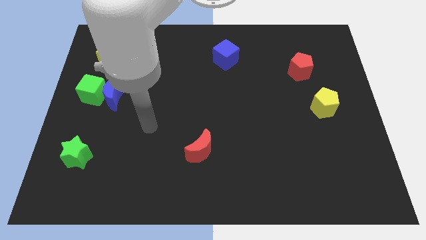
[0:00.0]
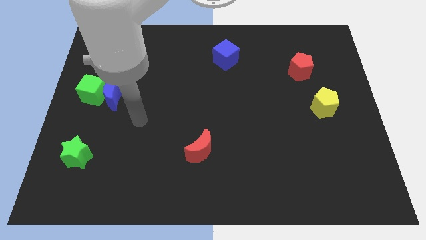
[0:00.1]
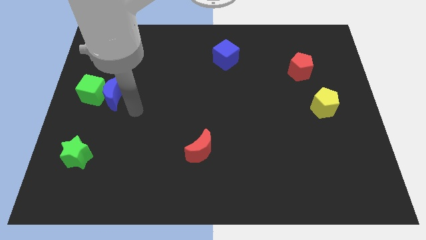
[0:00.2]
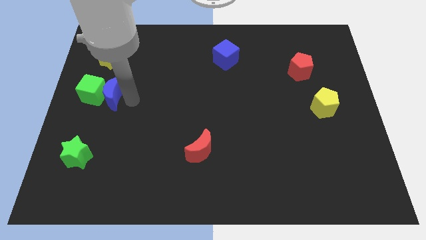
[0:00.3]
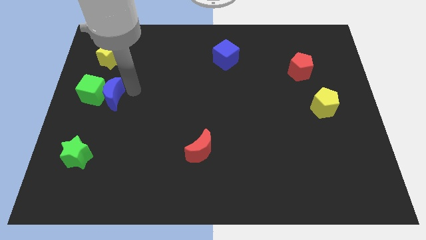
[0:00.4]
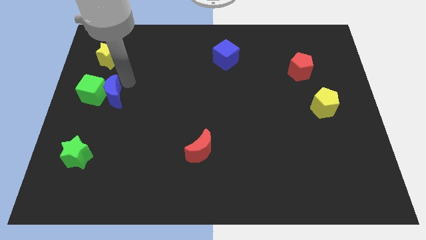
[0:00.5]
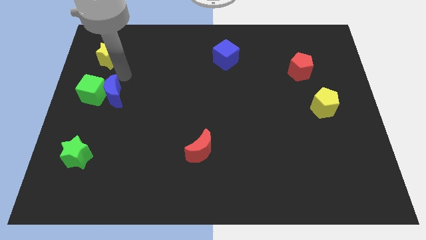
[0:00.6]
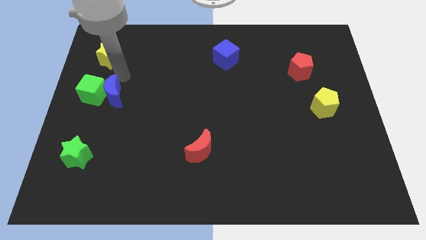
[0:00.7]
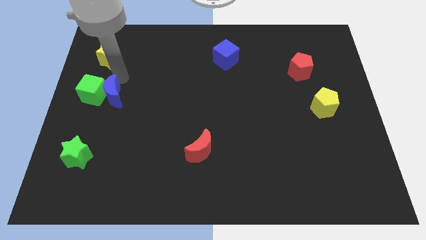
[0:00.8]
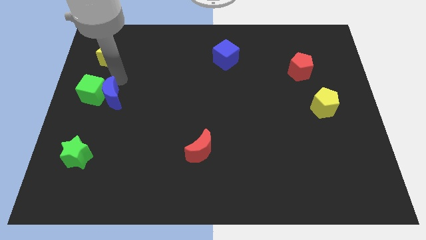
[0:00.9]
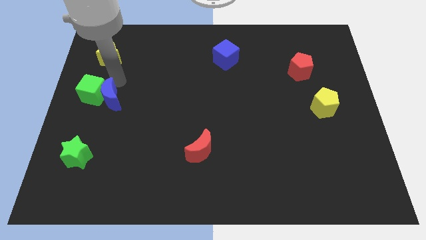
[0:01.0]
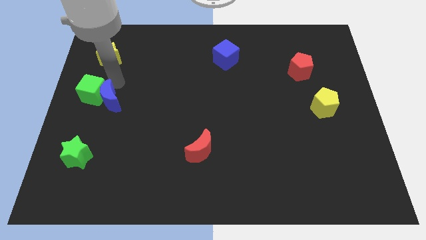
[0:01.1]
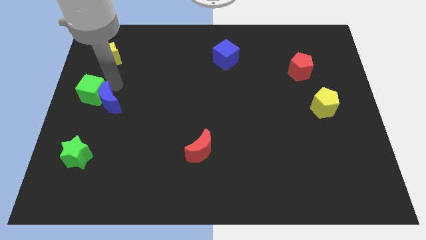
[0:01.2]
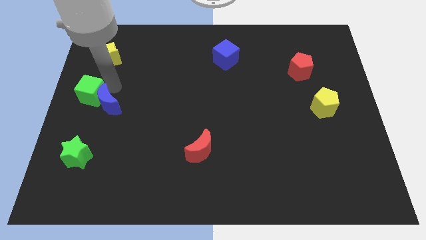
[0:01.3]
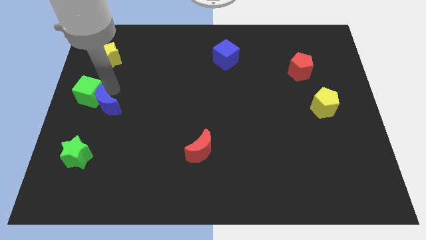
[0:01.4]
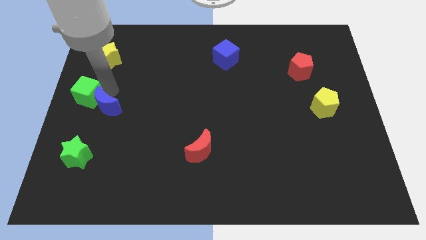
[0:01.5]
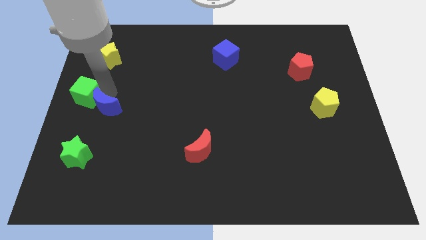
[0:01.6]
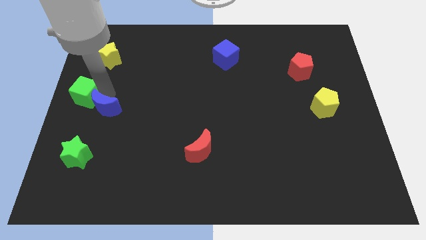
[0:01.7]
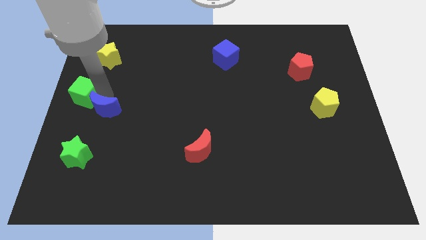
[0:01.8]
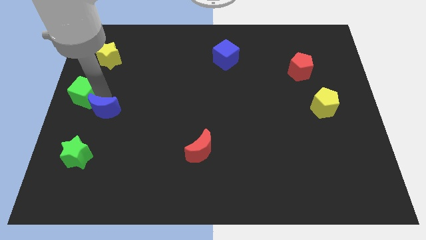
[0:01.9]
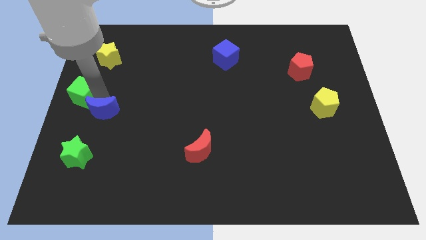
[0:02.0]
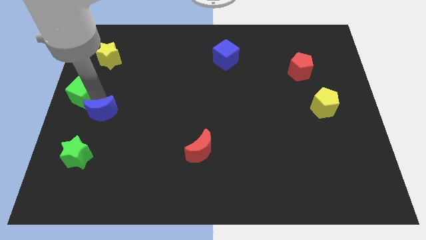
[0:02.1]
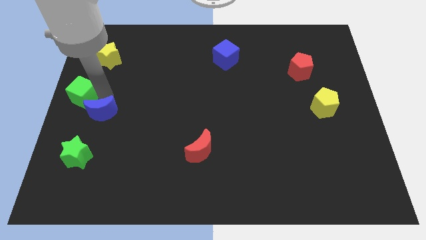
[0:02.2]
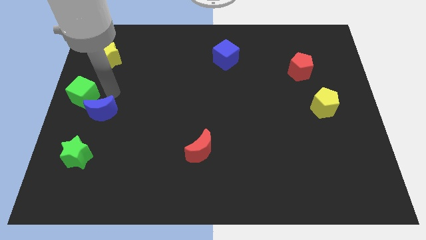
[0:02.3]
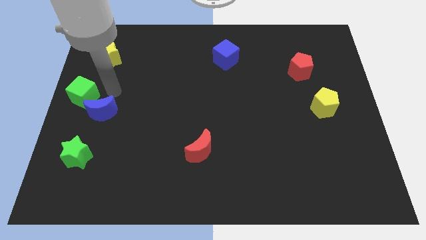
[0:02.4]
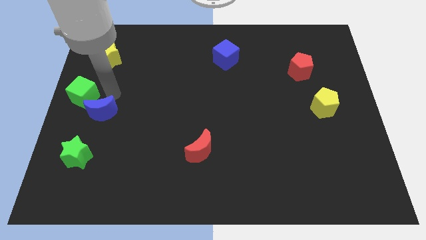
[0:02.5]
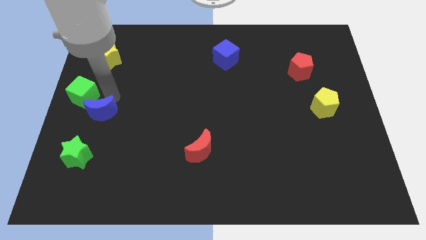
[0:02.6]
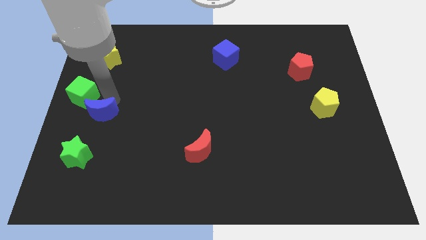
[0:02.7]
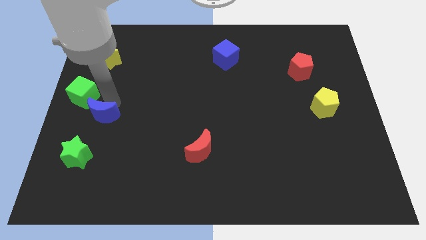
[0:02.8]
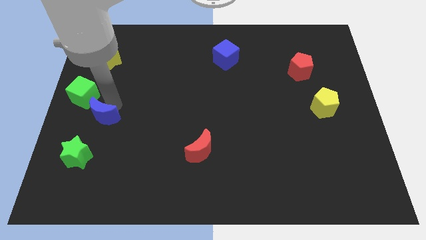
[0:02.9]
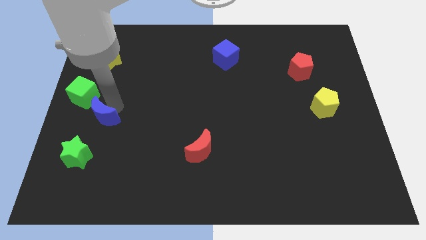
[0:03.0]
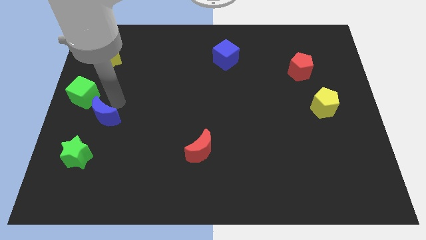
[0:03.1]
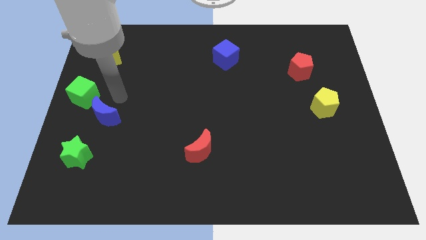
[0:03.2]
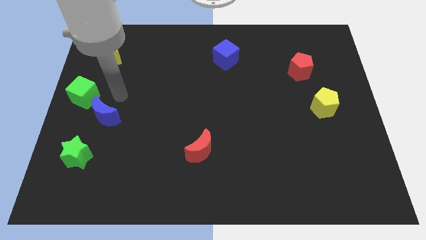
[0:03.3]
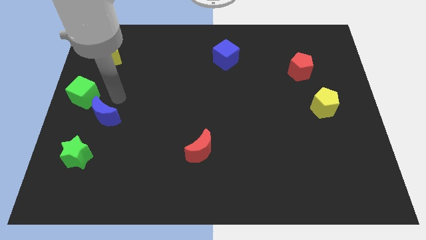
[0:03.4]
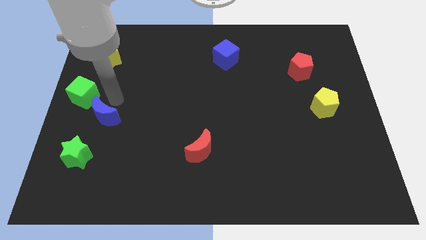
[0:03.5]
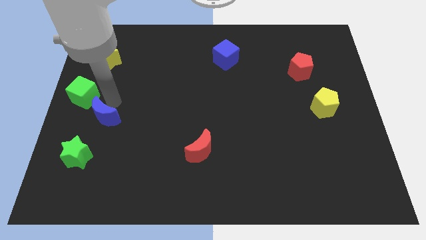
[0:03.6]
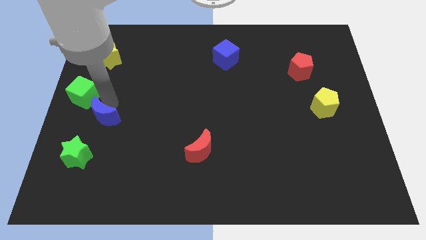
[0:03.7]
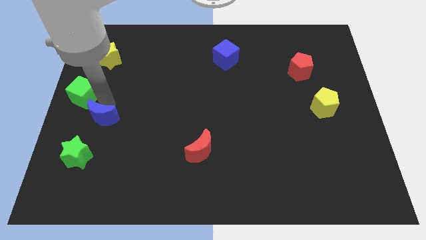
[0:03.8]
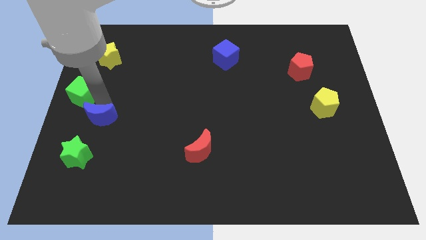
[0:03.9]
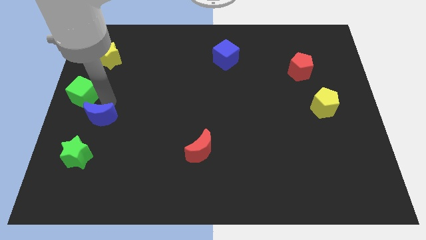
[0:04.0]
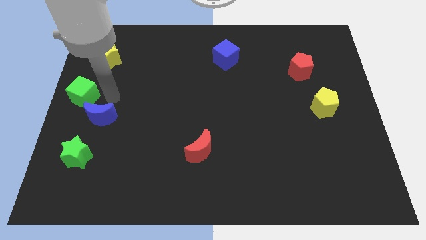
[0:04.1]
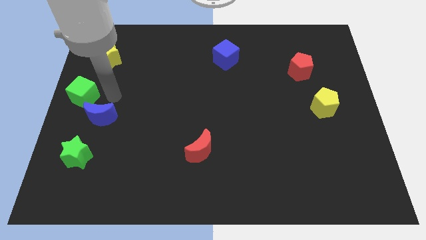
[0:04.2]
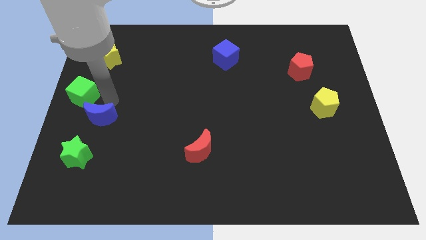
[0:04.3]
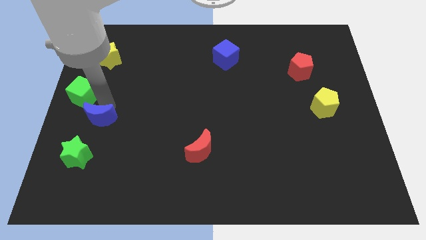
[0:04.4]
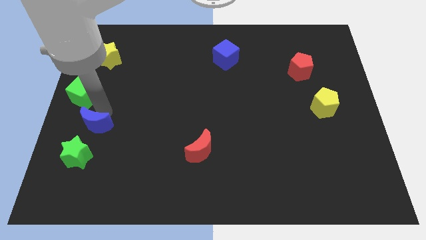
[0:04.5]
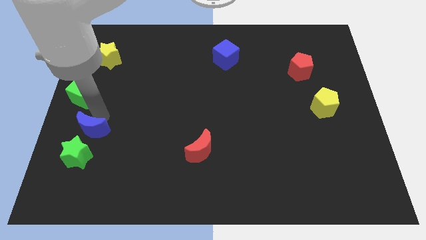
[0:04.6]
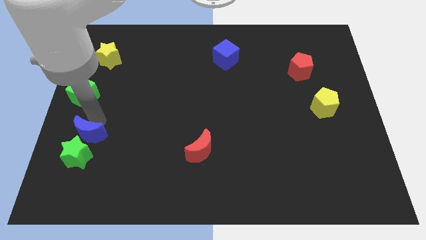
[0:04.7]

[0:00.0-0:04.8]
slide the blue moon towards the green star

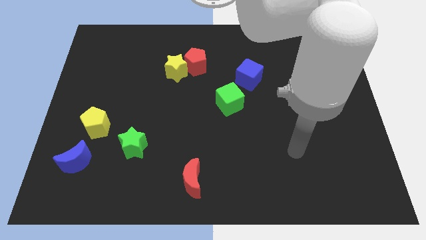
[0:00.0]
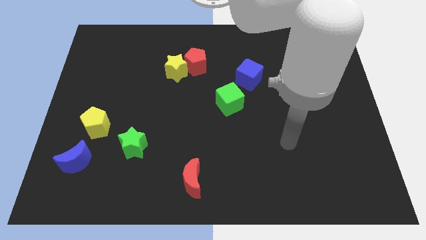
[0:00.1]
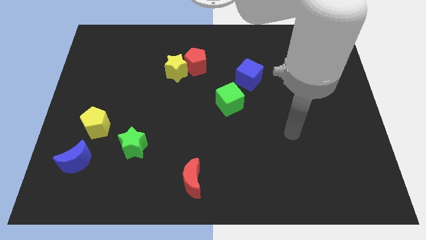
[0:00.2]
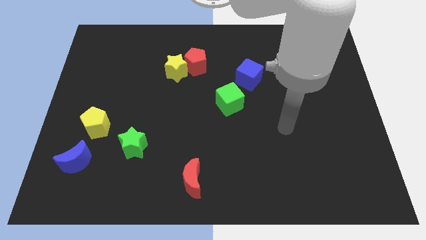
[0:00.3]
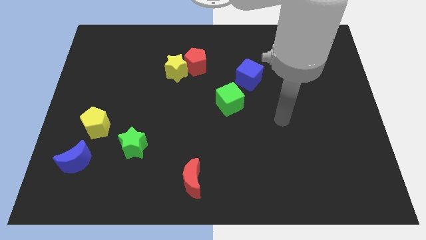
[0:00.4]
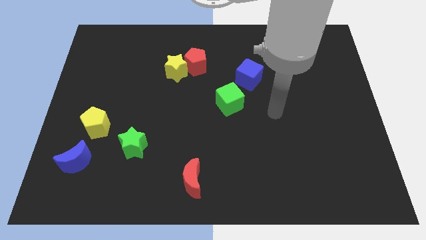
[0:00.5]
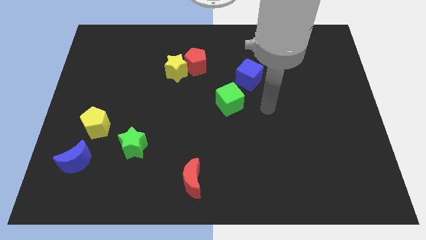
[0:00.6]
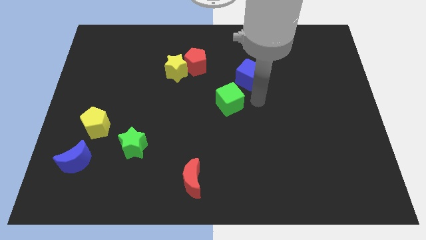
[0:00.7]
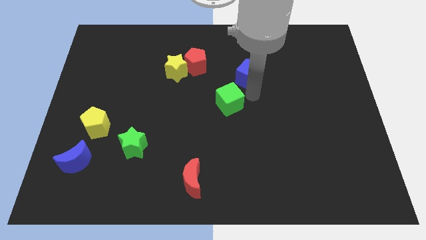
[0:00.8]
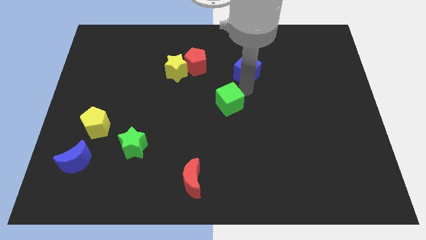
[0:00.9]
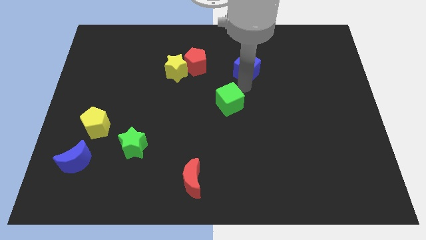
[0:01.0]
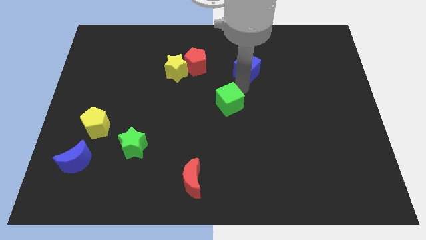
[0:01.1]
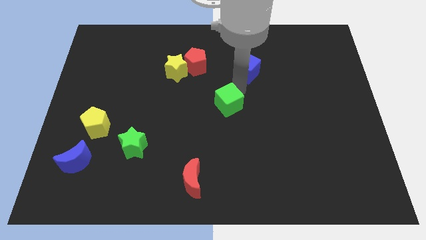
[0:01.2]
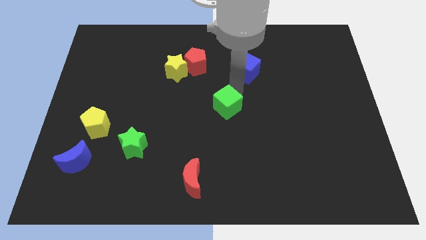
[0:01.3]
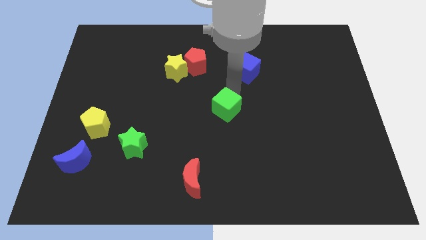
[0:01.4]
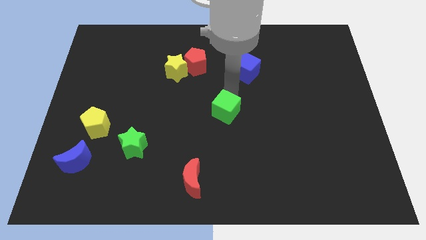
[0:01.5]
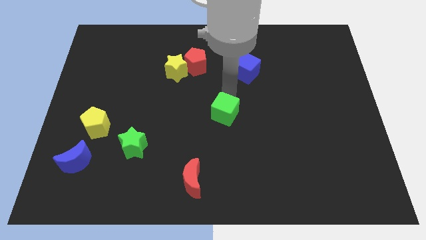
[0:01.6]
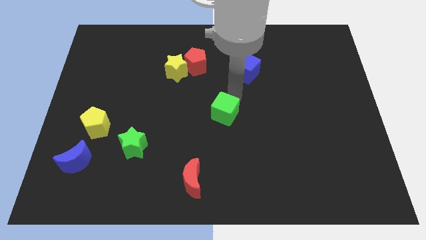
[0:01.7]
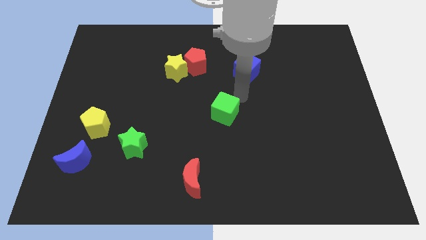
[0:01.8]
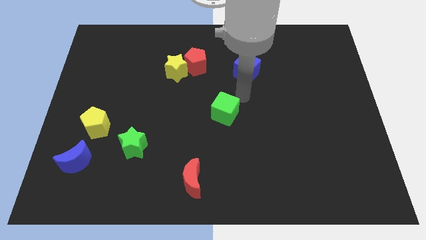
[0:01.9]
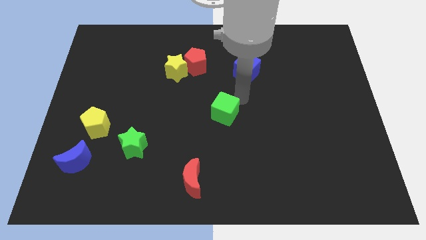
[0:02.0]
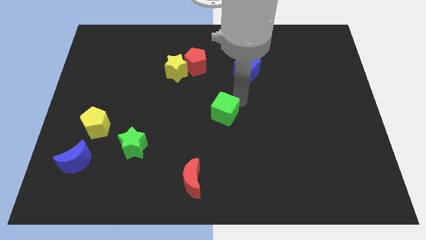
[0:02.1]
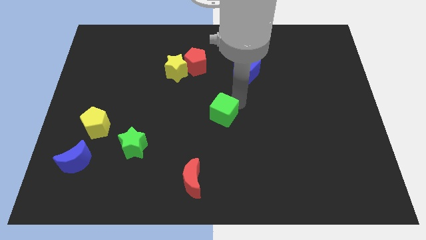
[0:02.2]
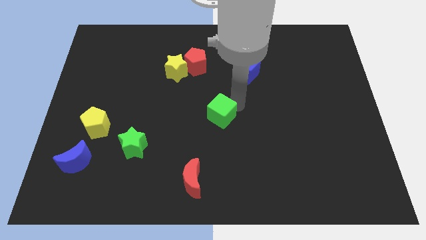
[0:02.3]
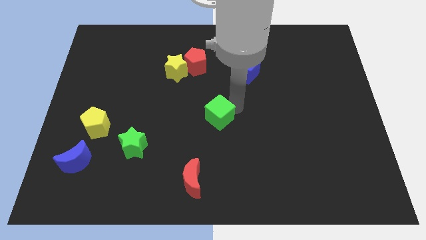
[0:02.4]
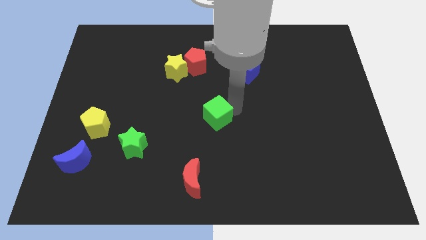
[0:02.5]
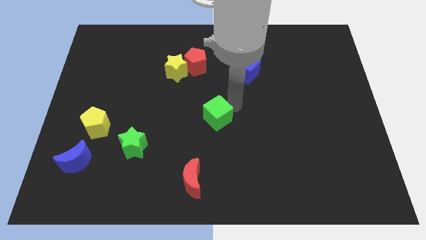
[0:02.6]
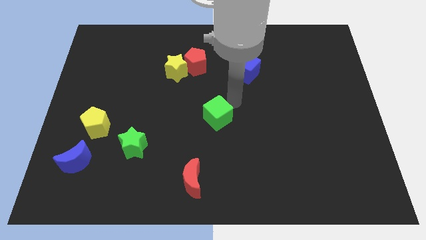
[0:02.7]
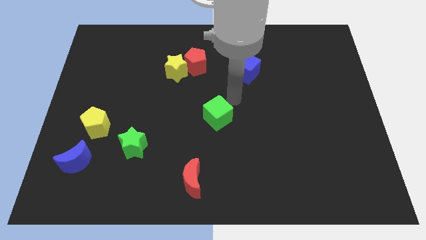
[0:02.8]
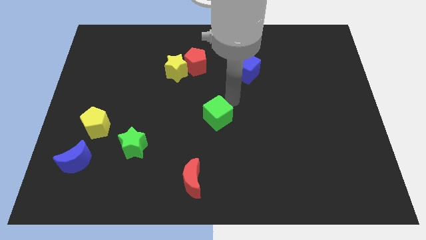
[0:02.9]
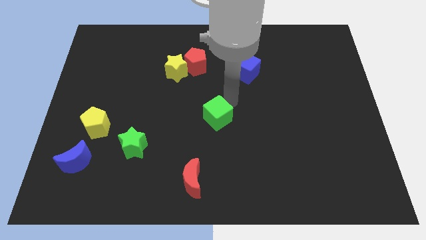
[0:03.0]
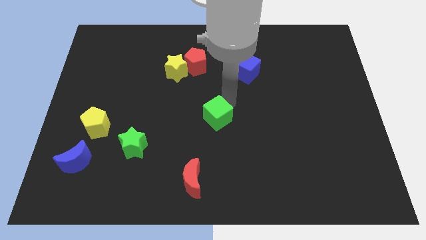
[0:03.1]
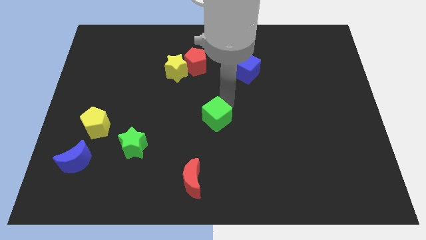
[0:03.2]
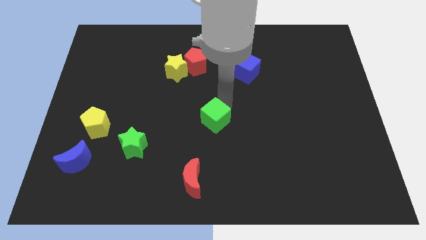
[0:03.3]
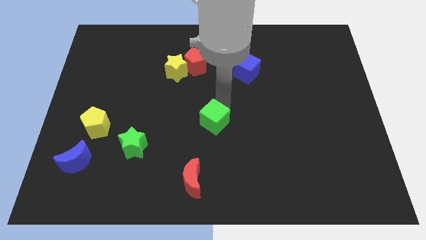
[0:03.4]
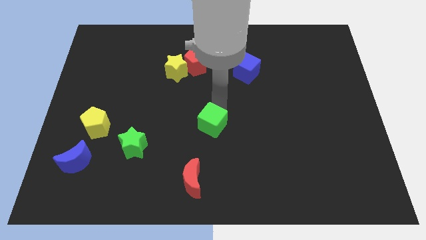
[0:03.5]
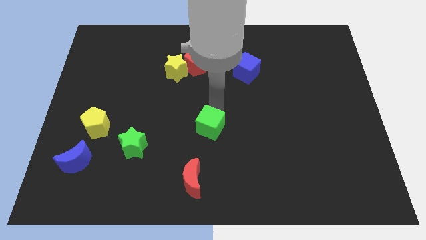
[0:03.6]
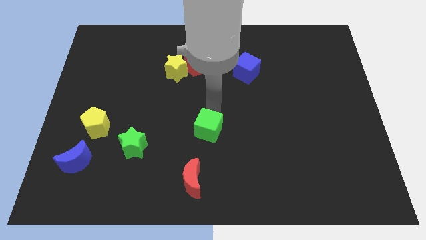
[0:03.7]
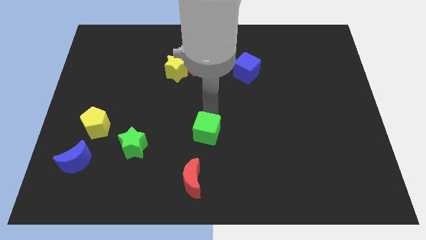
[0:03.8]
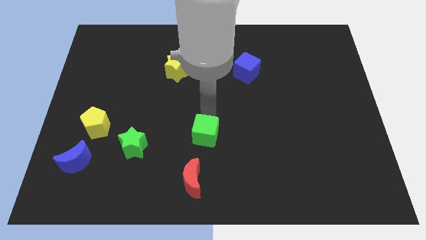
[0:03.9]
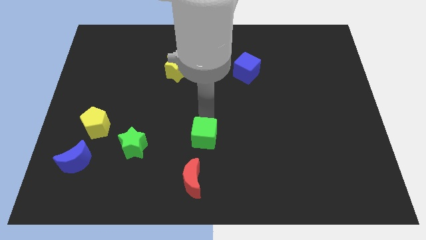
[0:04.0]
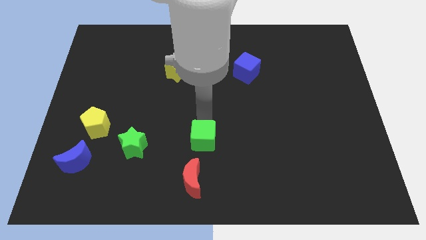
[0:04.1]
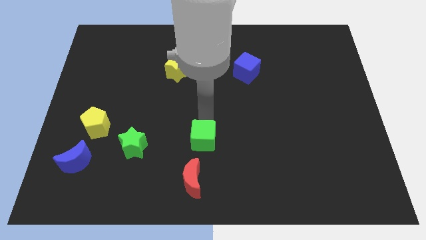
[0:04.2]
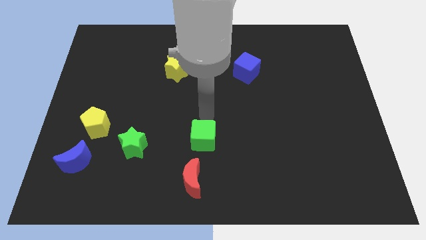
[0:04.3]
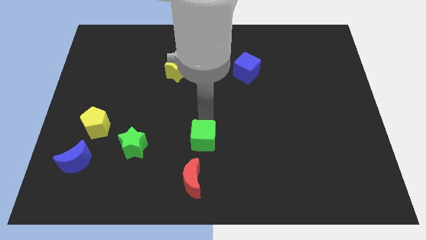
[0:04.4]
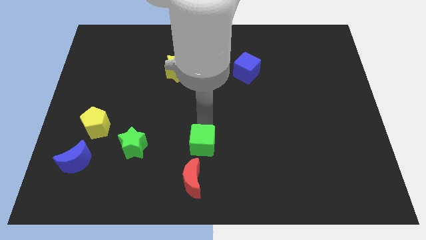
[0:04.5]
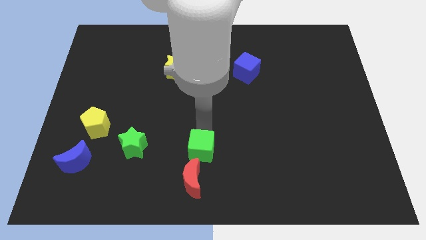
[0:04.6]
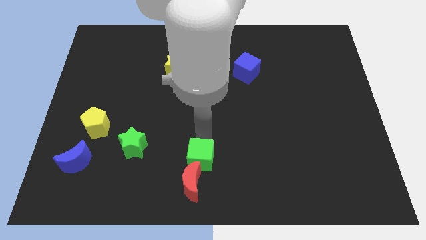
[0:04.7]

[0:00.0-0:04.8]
put the green cube next to the red moon
